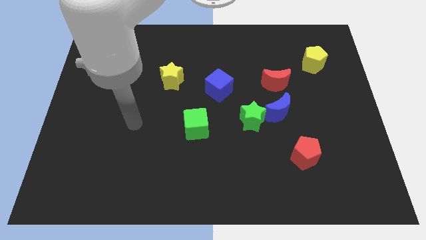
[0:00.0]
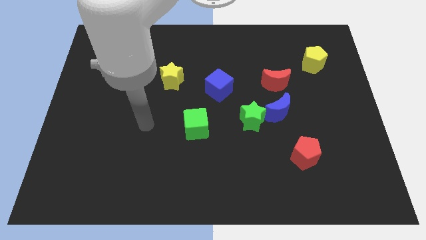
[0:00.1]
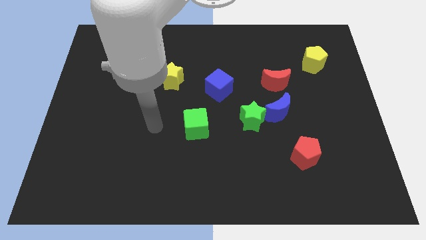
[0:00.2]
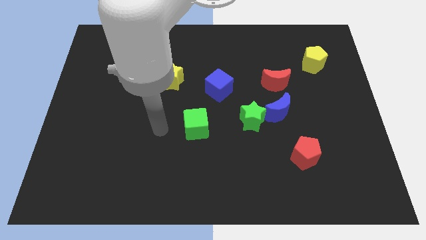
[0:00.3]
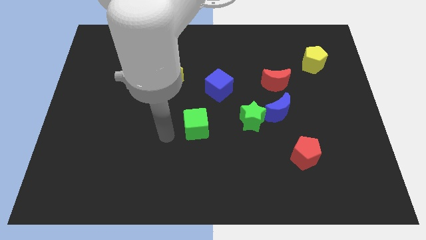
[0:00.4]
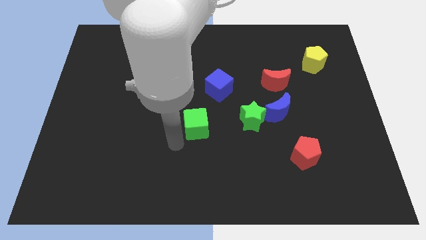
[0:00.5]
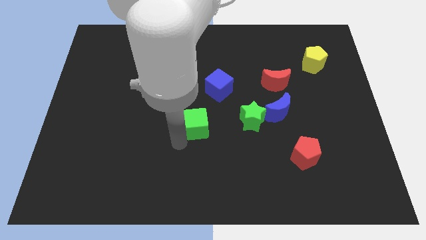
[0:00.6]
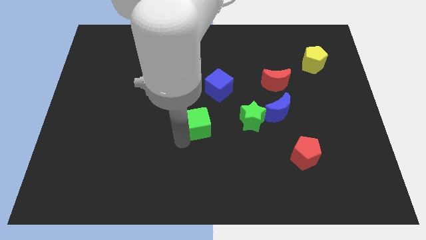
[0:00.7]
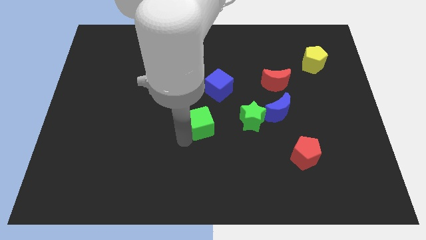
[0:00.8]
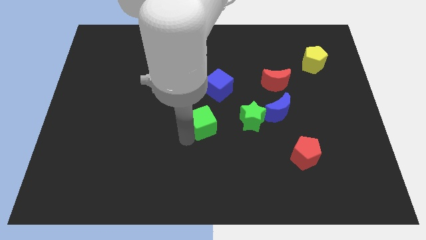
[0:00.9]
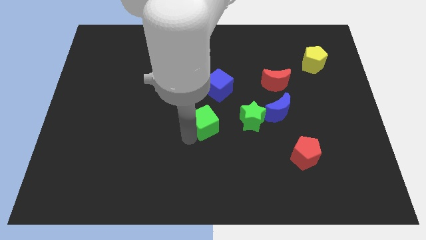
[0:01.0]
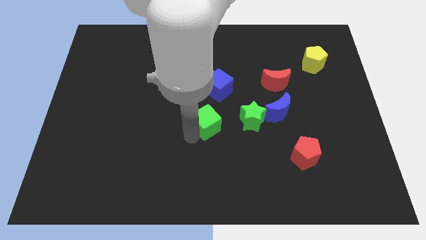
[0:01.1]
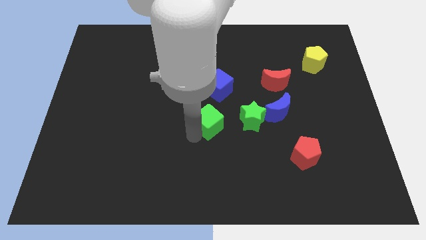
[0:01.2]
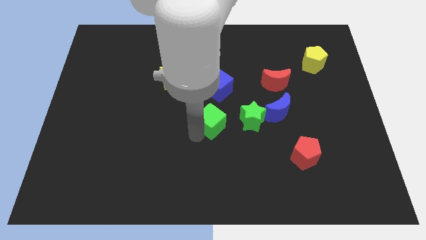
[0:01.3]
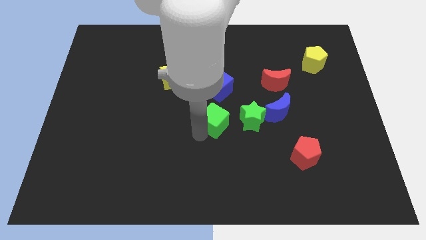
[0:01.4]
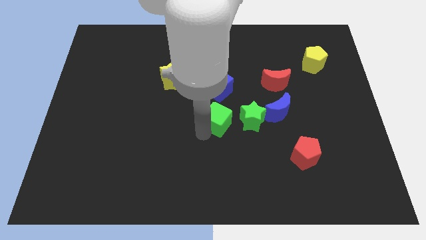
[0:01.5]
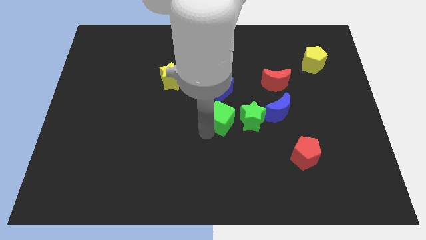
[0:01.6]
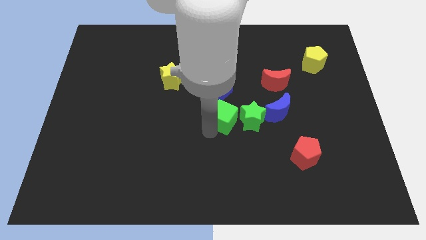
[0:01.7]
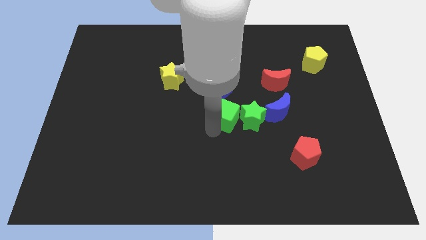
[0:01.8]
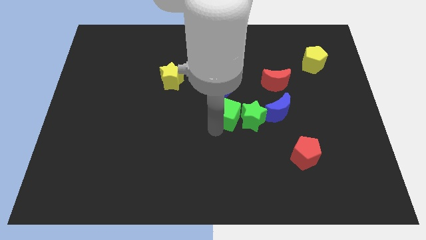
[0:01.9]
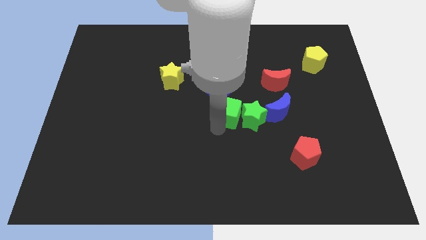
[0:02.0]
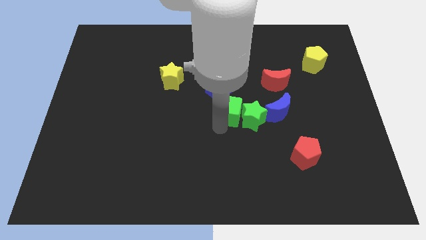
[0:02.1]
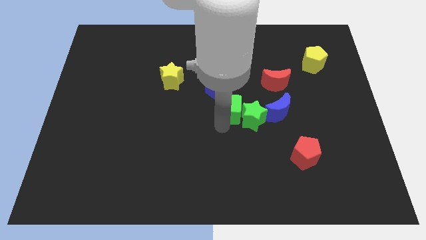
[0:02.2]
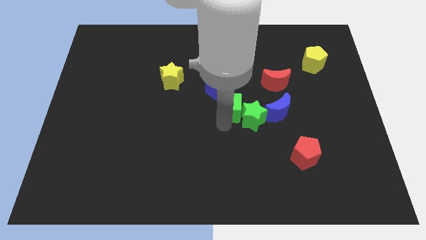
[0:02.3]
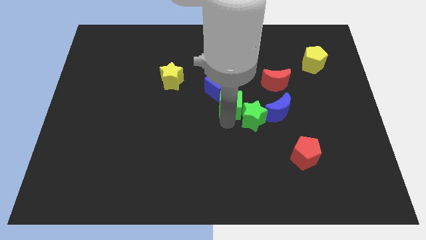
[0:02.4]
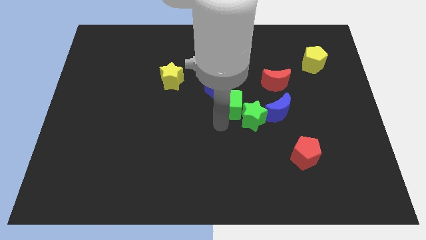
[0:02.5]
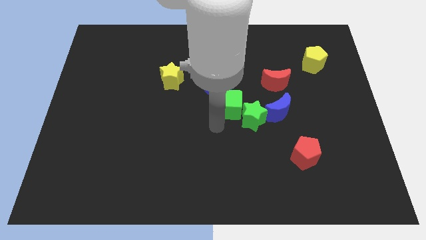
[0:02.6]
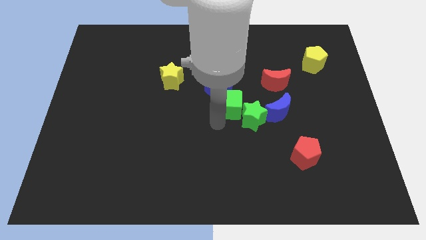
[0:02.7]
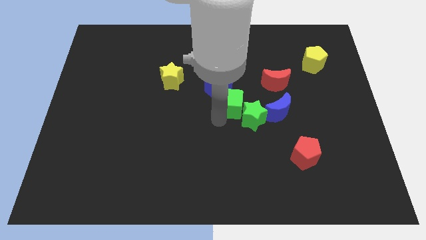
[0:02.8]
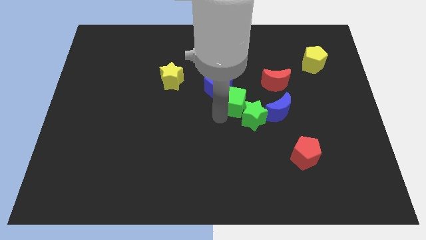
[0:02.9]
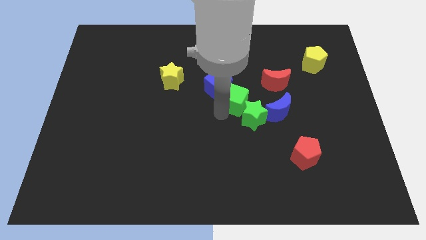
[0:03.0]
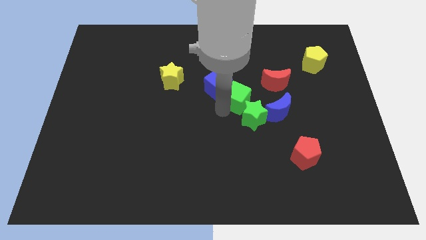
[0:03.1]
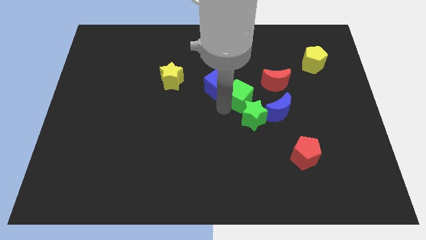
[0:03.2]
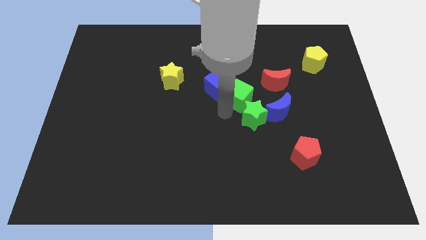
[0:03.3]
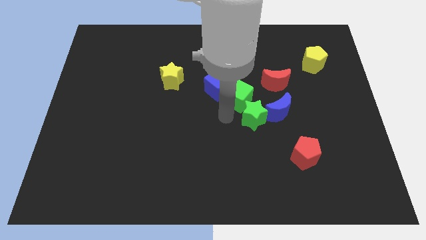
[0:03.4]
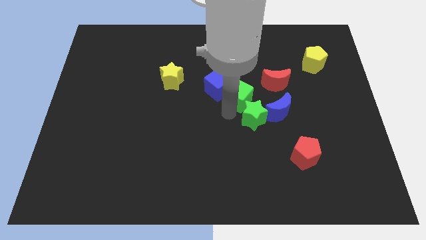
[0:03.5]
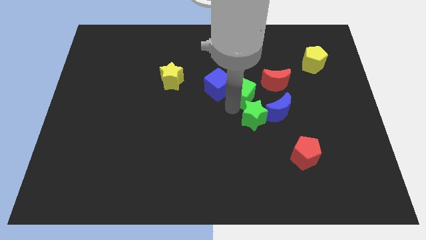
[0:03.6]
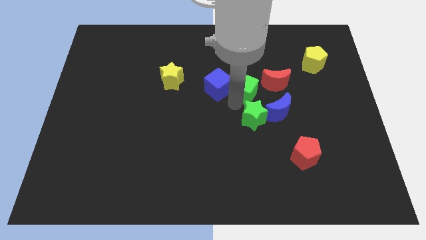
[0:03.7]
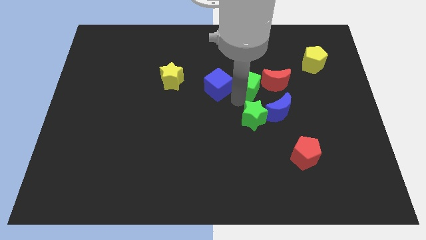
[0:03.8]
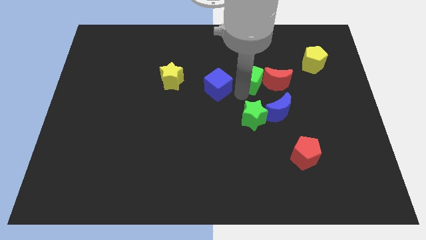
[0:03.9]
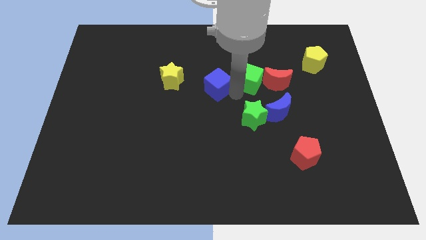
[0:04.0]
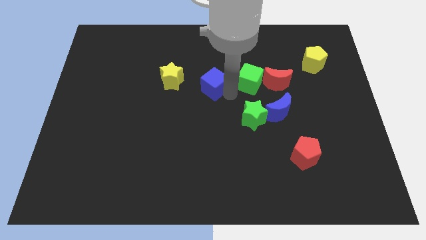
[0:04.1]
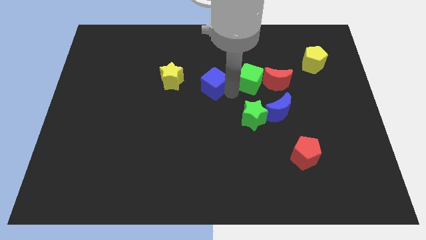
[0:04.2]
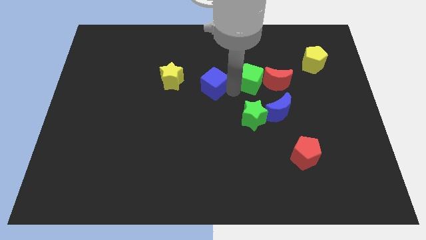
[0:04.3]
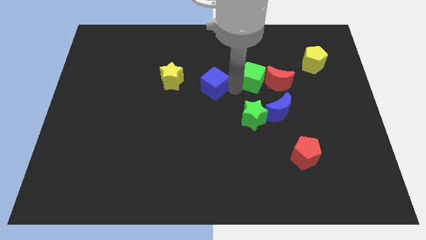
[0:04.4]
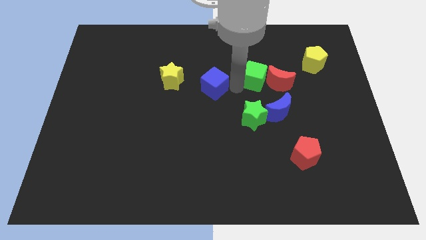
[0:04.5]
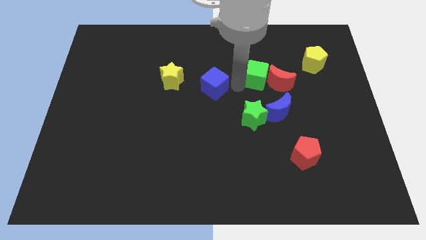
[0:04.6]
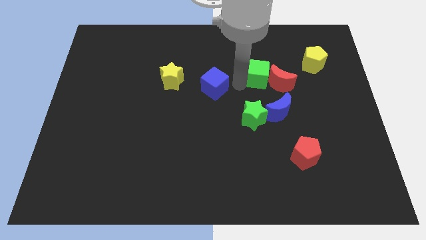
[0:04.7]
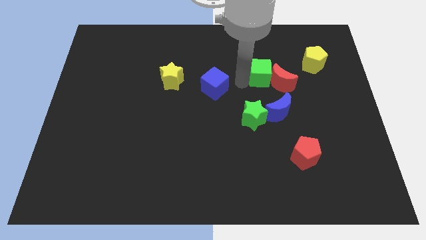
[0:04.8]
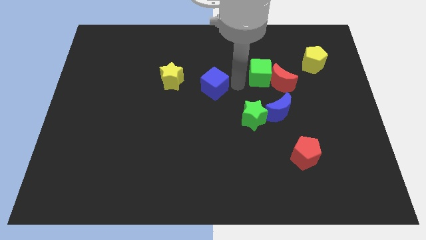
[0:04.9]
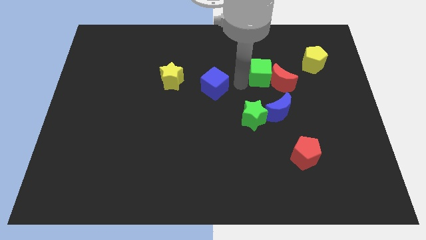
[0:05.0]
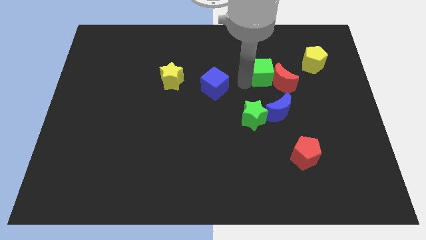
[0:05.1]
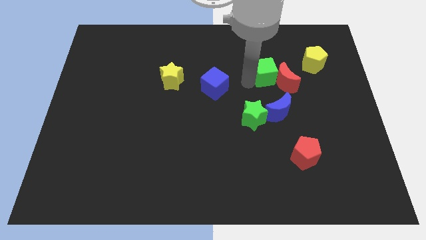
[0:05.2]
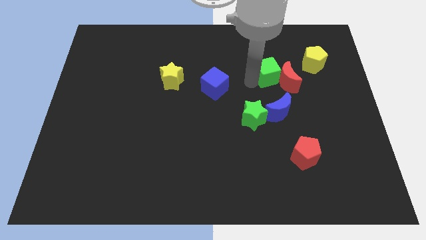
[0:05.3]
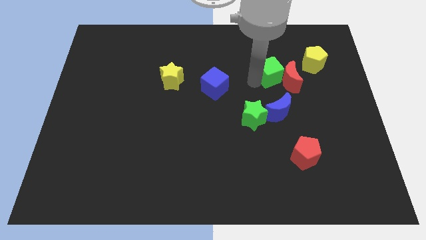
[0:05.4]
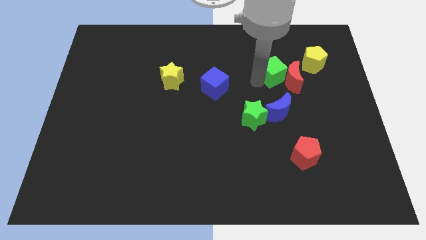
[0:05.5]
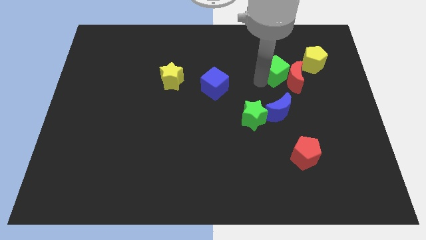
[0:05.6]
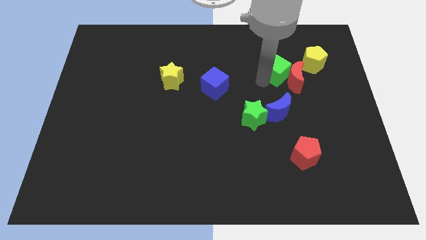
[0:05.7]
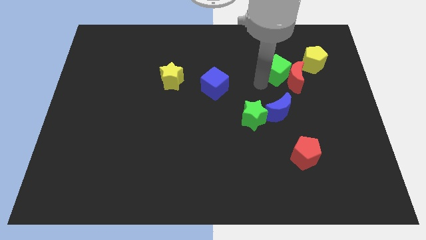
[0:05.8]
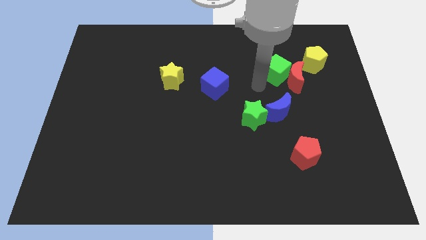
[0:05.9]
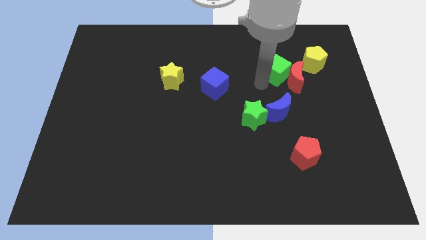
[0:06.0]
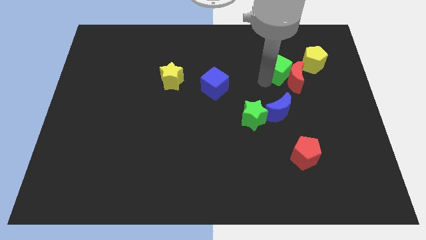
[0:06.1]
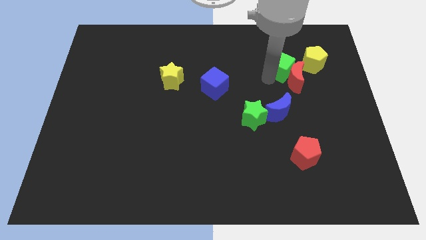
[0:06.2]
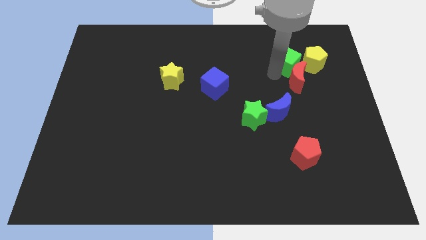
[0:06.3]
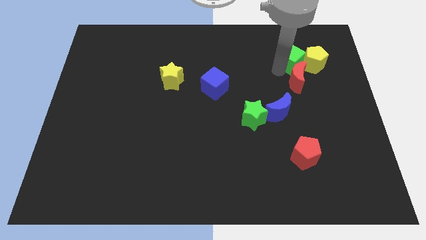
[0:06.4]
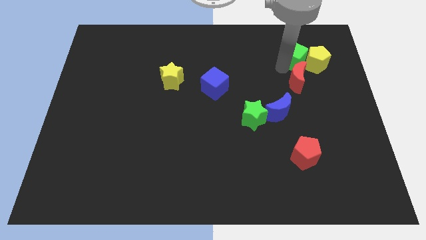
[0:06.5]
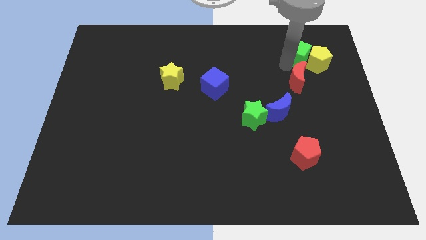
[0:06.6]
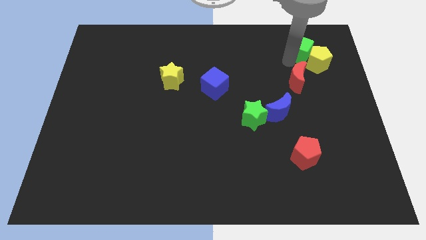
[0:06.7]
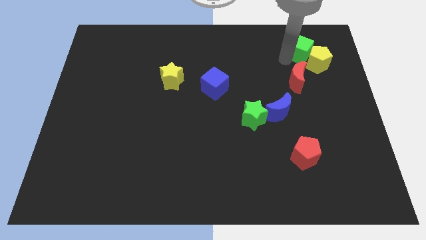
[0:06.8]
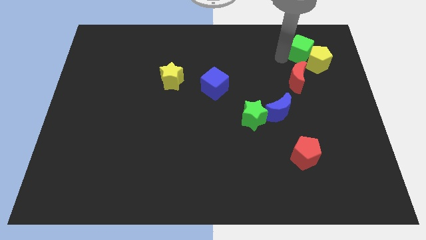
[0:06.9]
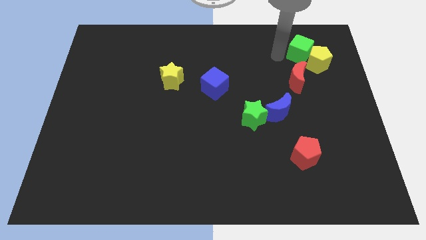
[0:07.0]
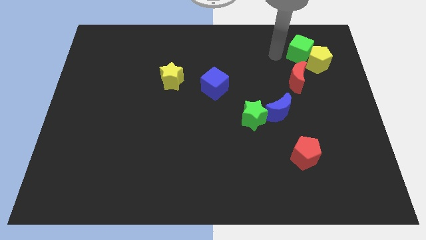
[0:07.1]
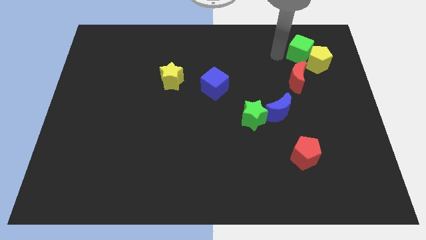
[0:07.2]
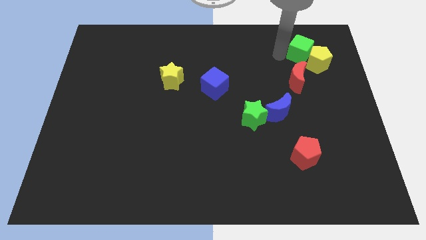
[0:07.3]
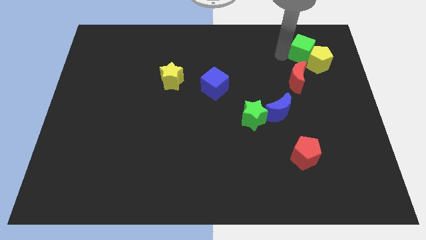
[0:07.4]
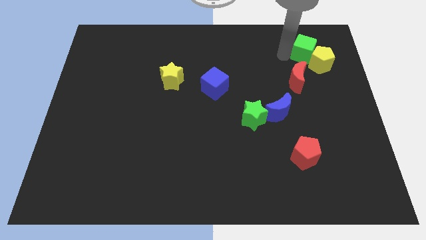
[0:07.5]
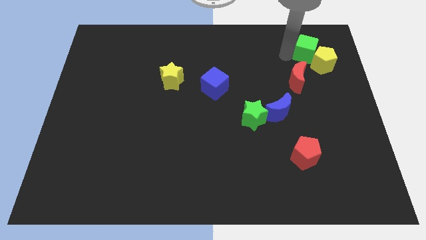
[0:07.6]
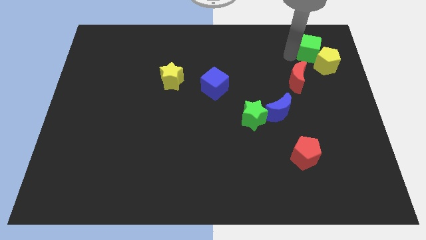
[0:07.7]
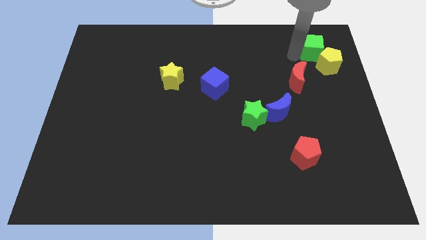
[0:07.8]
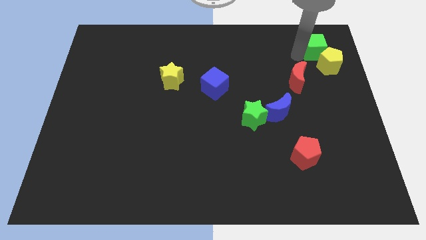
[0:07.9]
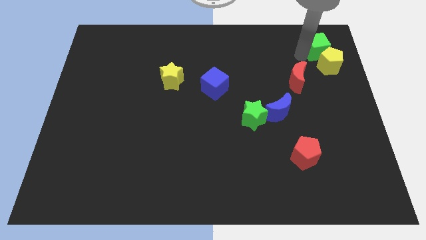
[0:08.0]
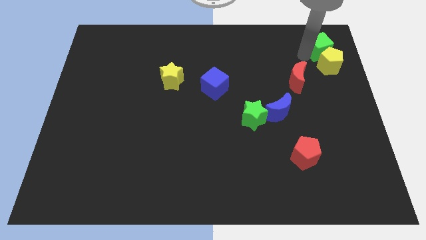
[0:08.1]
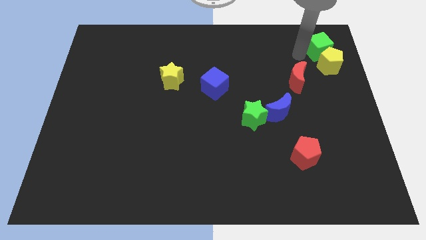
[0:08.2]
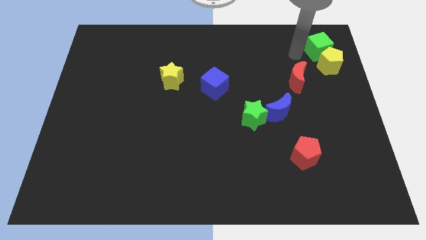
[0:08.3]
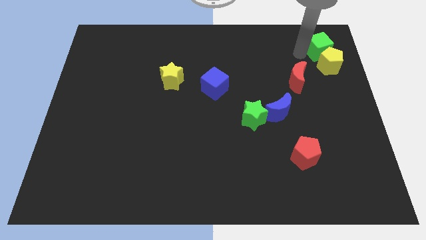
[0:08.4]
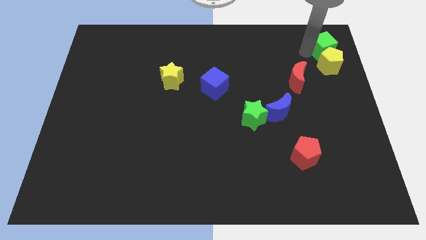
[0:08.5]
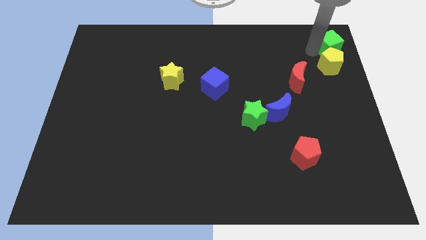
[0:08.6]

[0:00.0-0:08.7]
move the green cube to the top right corner
